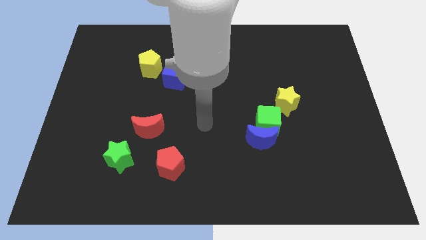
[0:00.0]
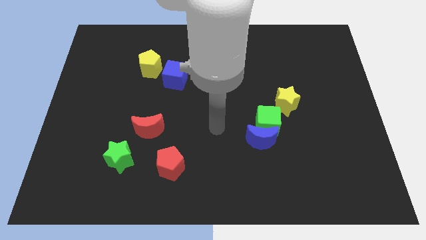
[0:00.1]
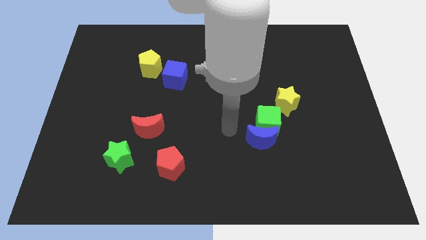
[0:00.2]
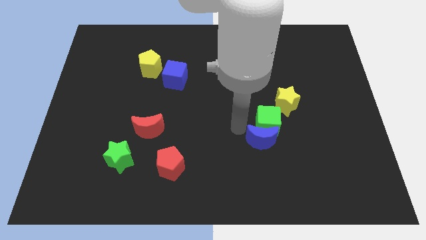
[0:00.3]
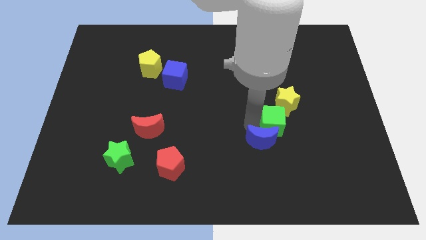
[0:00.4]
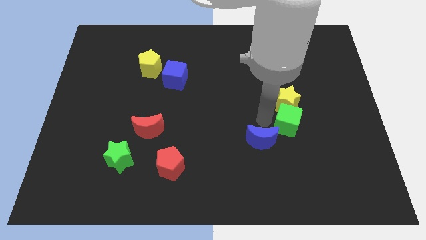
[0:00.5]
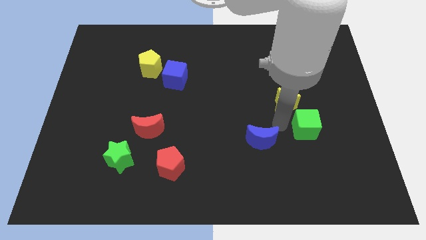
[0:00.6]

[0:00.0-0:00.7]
pull the blue moon apart from the green cube

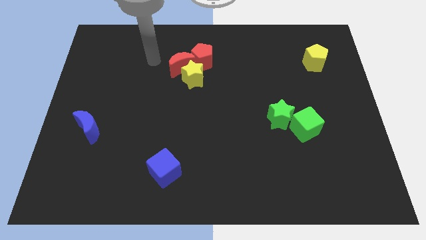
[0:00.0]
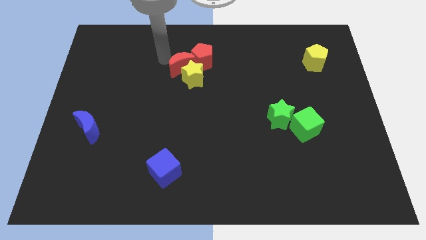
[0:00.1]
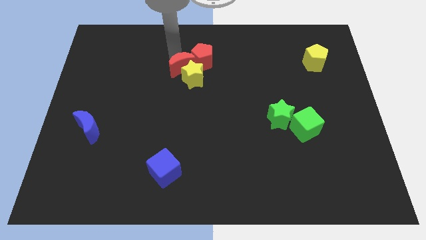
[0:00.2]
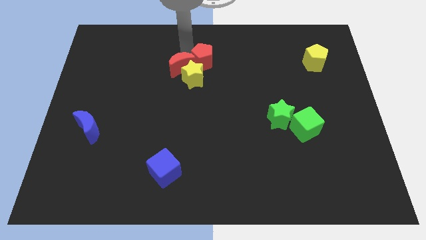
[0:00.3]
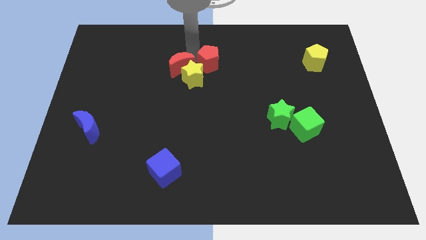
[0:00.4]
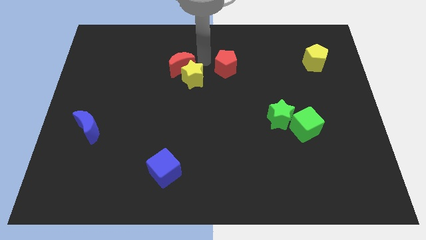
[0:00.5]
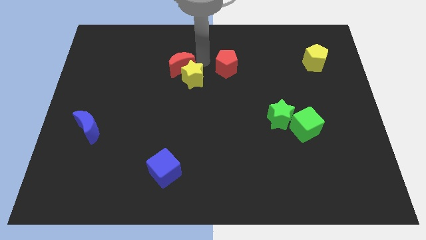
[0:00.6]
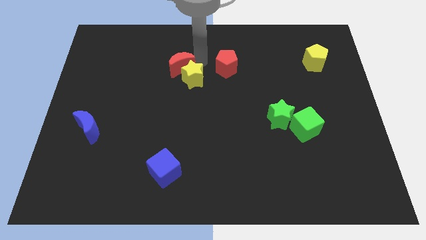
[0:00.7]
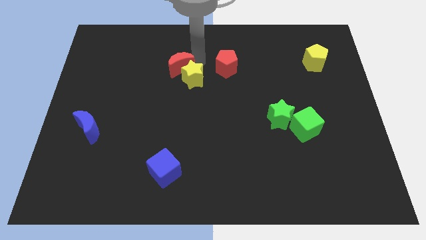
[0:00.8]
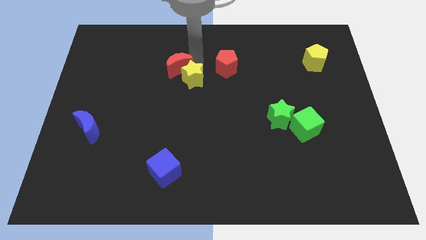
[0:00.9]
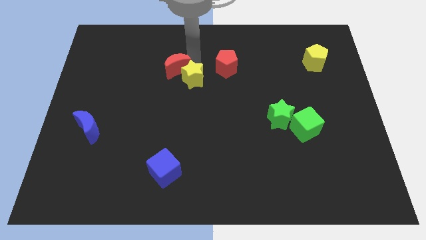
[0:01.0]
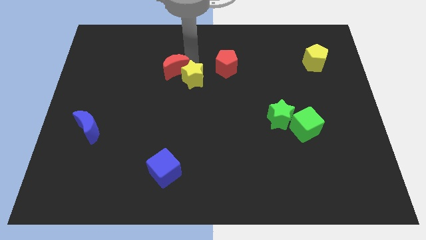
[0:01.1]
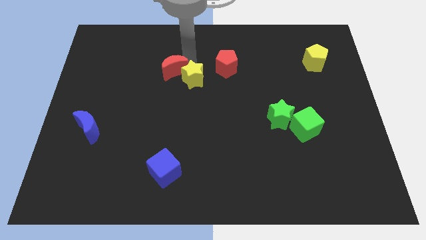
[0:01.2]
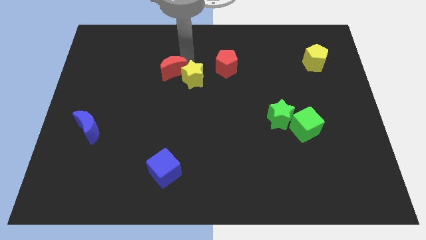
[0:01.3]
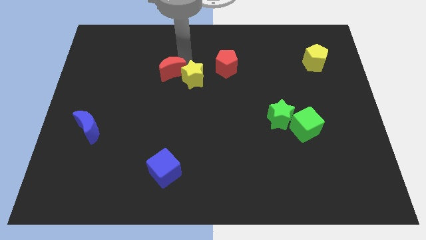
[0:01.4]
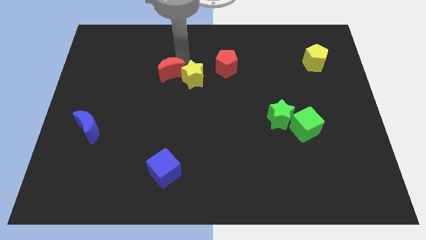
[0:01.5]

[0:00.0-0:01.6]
separate the red moon from the yellow star and red pentagon

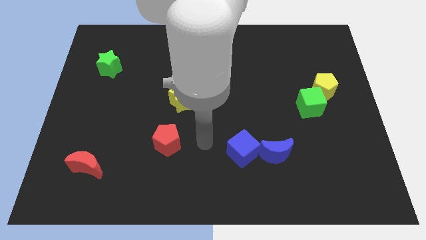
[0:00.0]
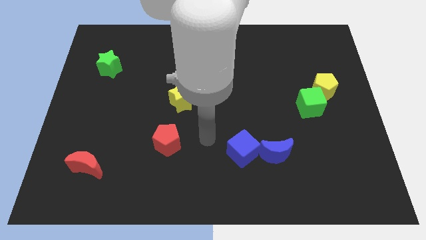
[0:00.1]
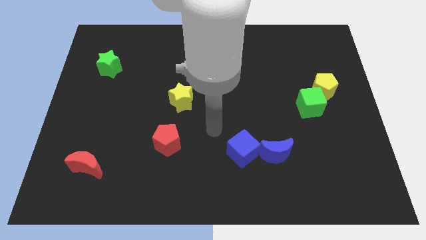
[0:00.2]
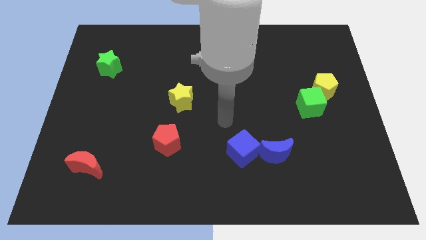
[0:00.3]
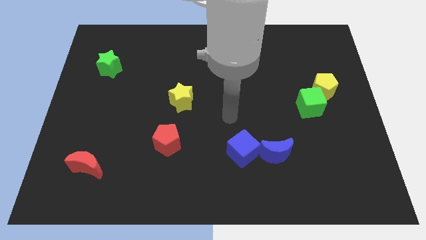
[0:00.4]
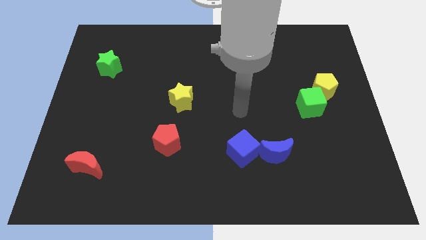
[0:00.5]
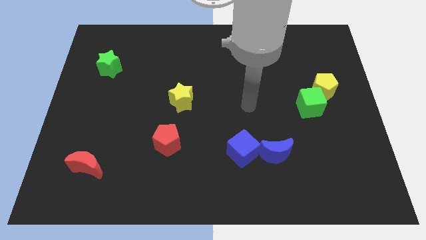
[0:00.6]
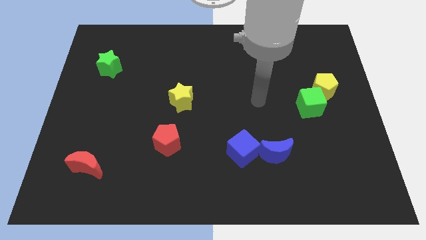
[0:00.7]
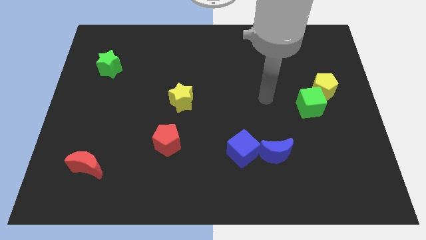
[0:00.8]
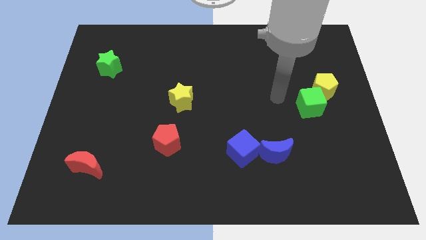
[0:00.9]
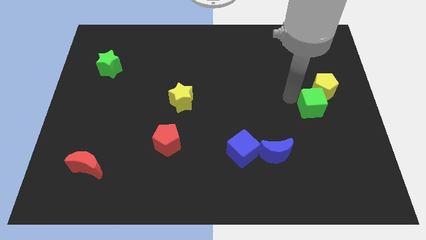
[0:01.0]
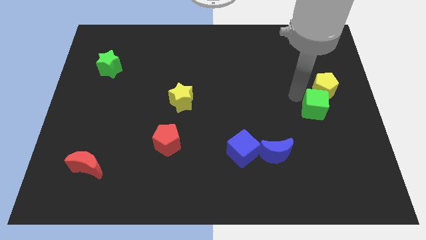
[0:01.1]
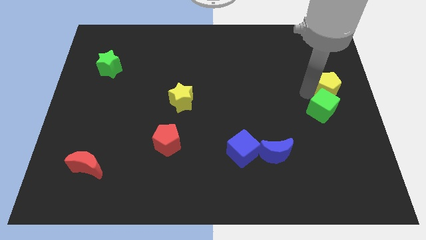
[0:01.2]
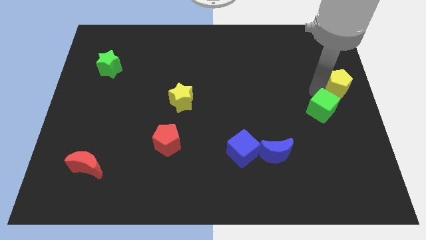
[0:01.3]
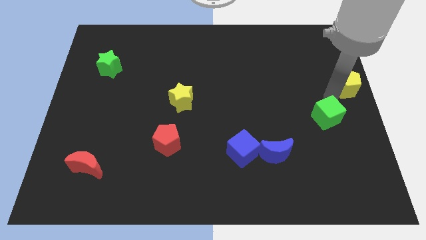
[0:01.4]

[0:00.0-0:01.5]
separate the green cube from the yellow pentagon

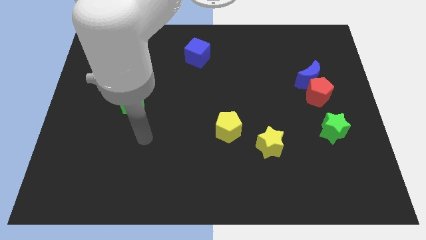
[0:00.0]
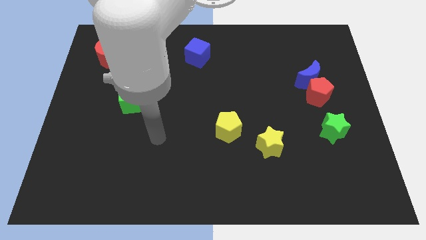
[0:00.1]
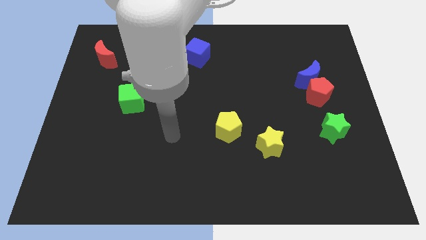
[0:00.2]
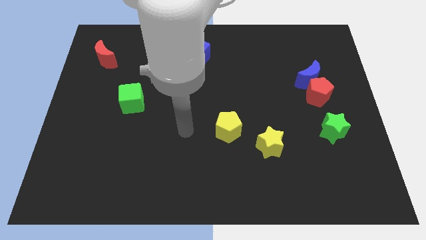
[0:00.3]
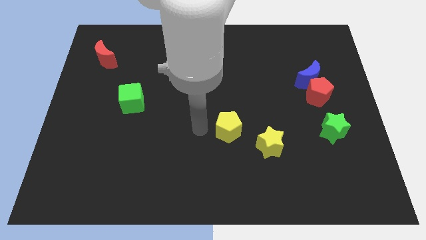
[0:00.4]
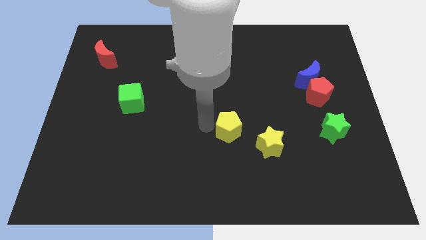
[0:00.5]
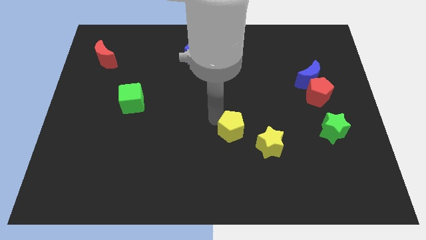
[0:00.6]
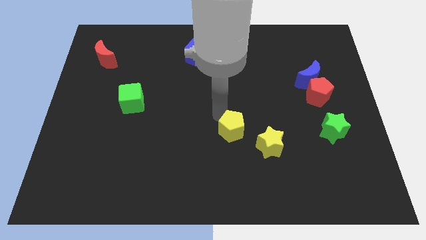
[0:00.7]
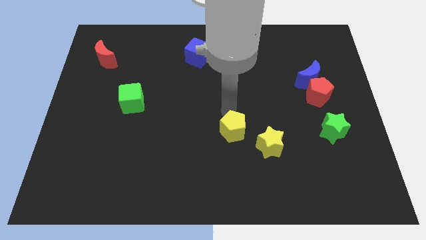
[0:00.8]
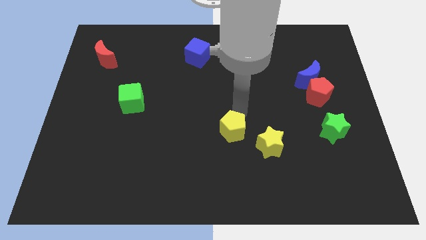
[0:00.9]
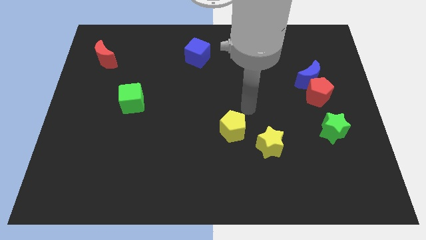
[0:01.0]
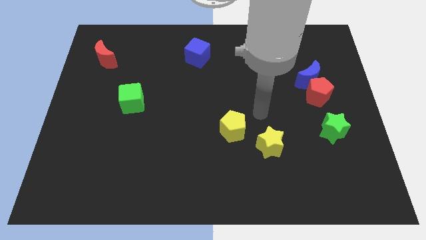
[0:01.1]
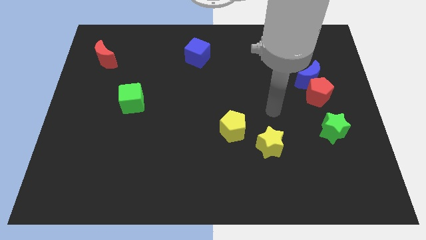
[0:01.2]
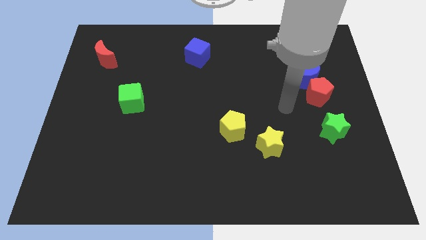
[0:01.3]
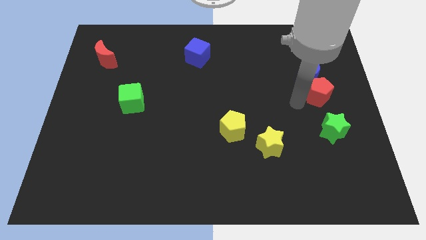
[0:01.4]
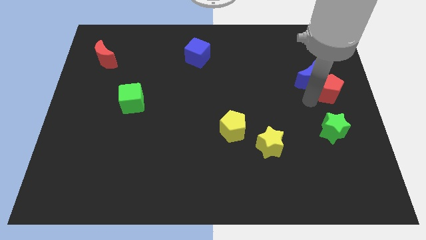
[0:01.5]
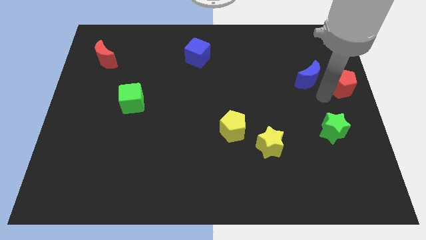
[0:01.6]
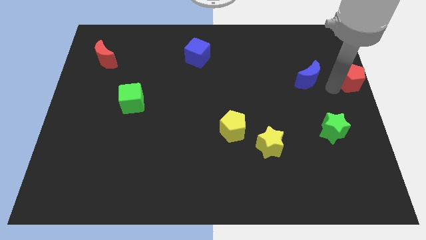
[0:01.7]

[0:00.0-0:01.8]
separate the blue moon from the red pentagon

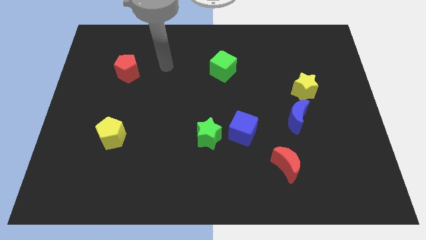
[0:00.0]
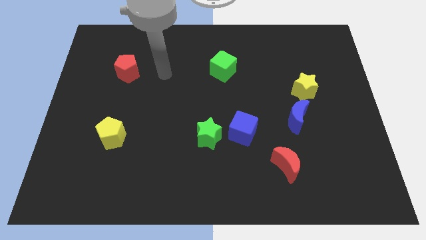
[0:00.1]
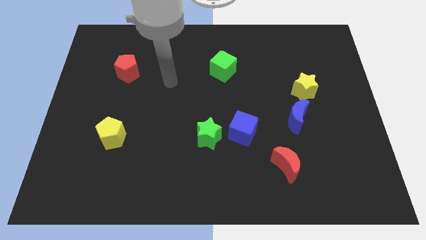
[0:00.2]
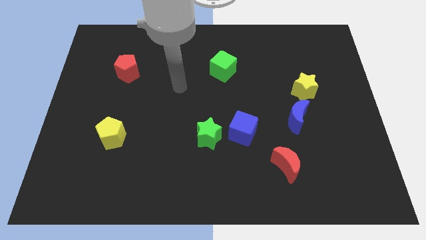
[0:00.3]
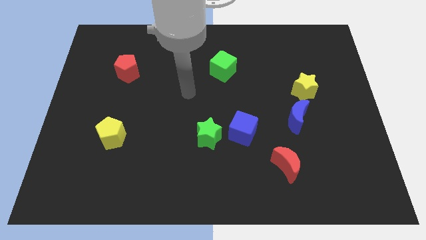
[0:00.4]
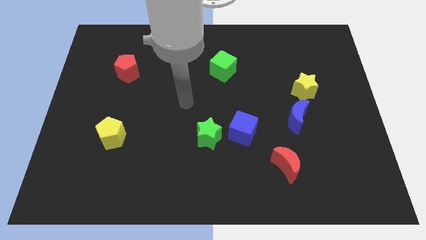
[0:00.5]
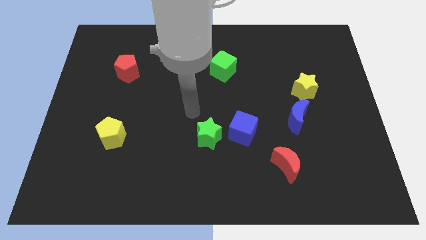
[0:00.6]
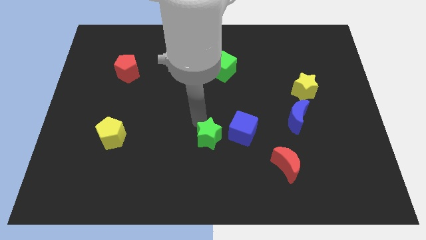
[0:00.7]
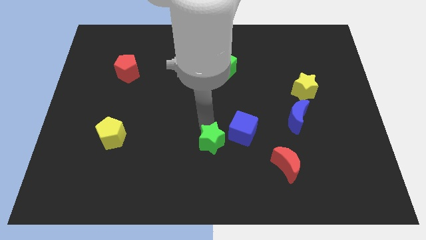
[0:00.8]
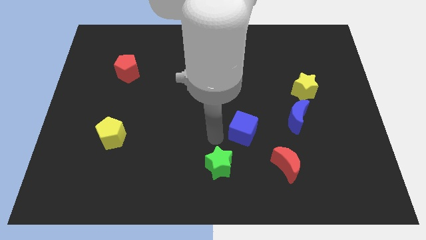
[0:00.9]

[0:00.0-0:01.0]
move the blue cube away from the green star

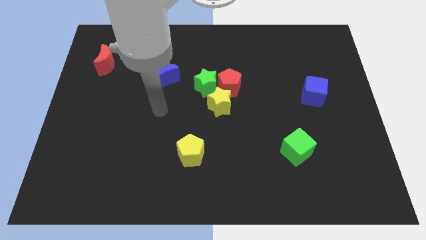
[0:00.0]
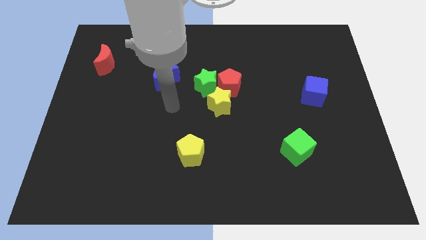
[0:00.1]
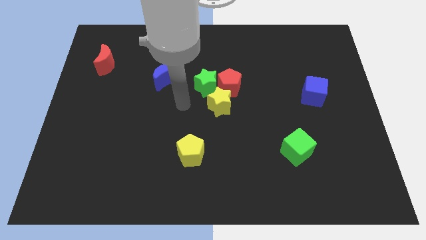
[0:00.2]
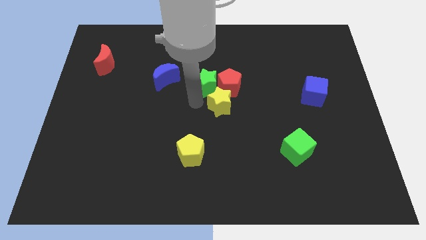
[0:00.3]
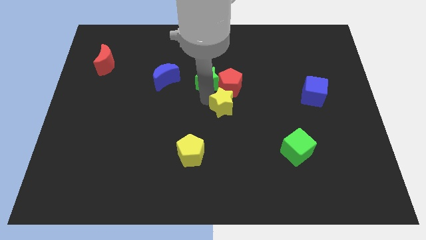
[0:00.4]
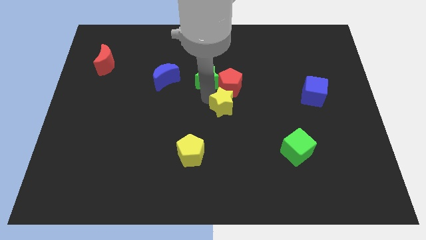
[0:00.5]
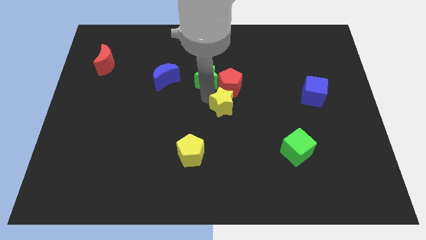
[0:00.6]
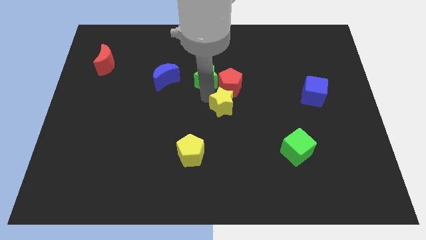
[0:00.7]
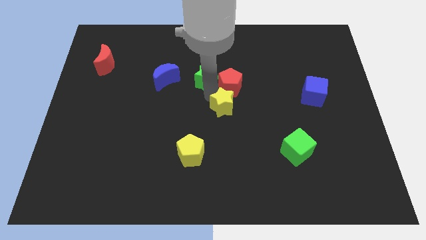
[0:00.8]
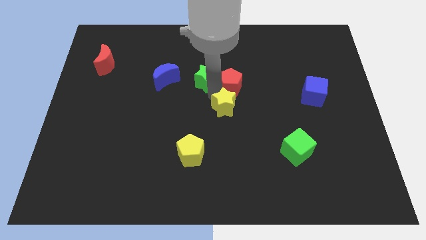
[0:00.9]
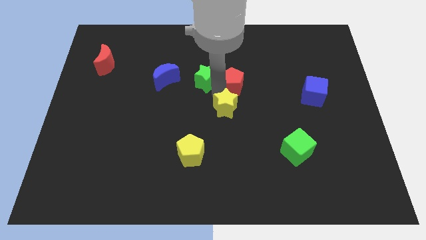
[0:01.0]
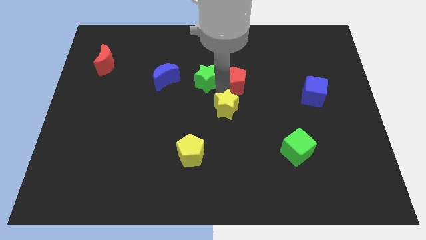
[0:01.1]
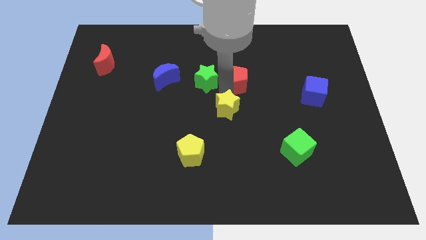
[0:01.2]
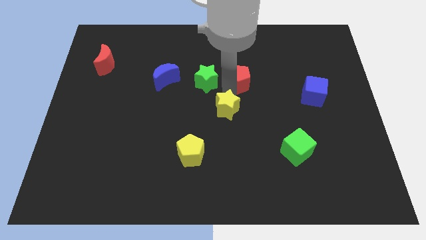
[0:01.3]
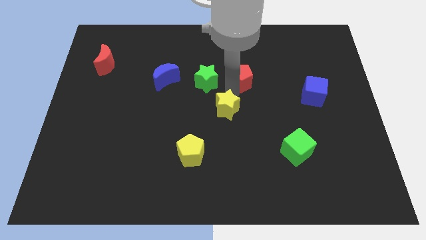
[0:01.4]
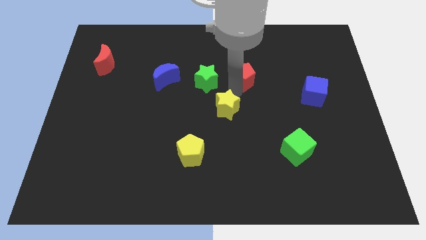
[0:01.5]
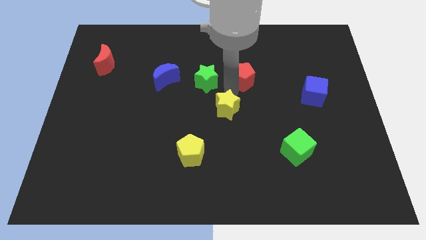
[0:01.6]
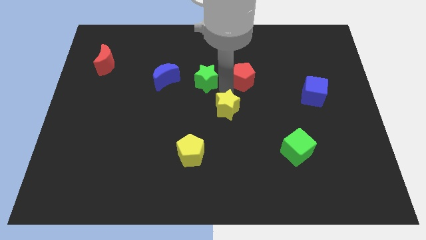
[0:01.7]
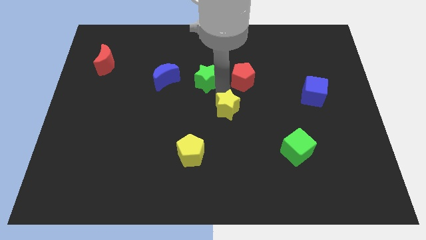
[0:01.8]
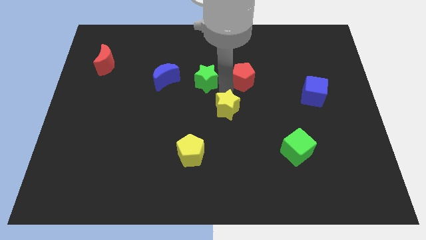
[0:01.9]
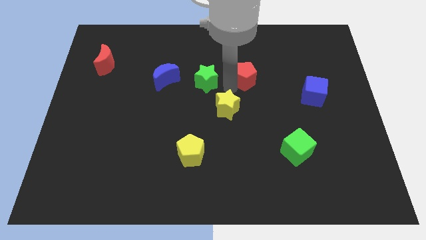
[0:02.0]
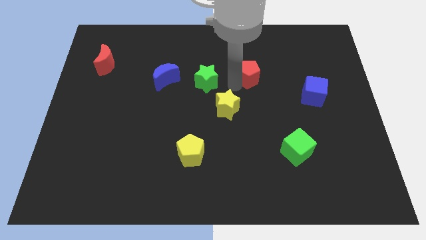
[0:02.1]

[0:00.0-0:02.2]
pull the red pentagon apart from the green star and yellow star

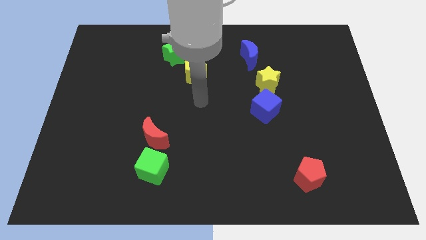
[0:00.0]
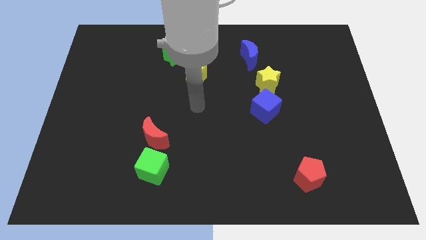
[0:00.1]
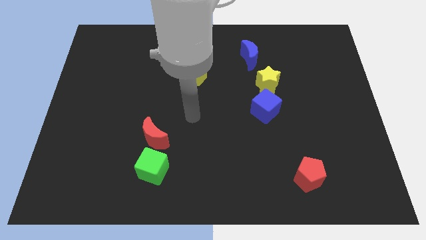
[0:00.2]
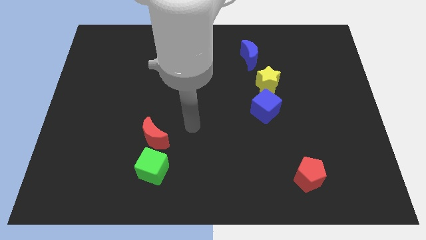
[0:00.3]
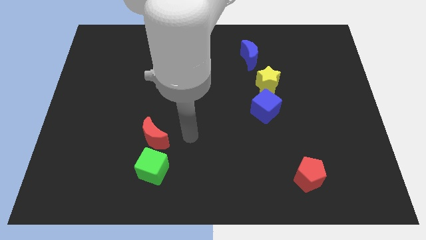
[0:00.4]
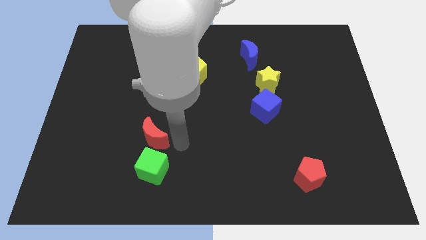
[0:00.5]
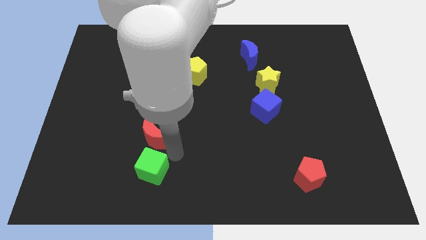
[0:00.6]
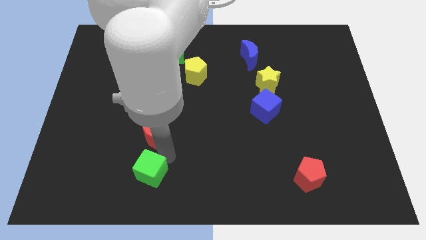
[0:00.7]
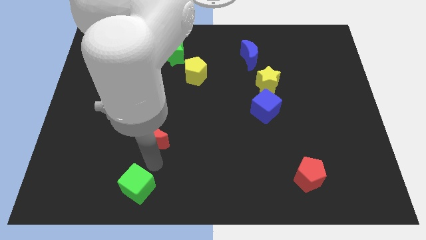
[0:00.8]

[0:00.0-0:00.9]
pull the red moon apart from the green cube
